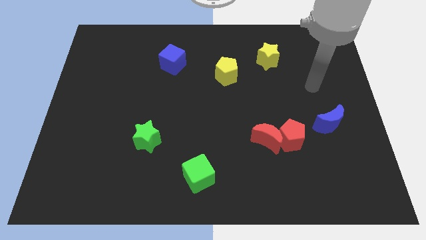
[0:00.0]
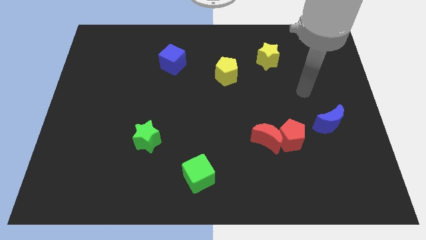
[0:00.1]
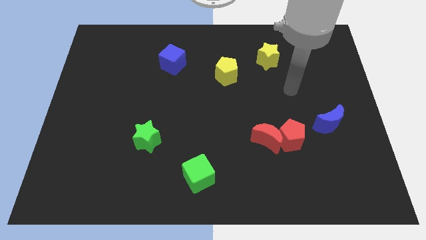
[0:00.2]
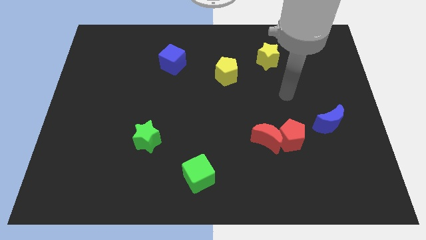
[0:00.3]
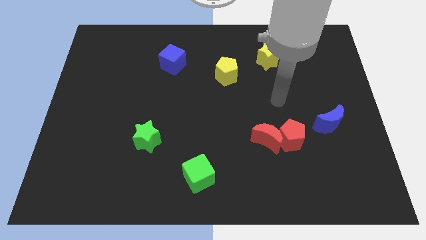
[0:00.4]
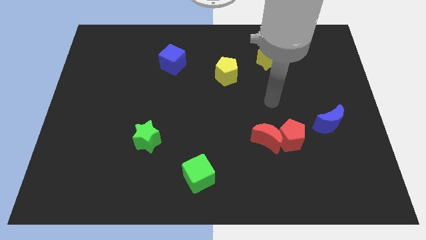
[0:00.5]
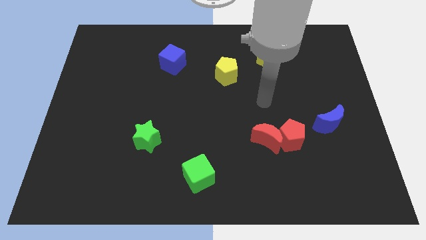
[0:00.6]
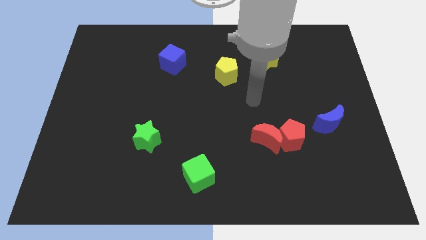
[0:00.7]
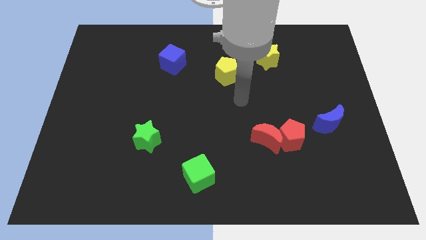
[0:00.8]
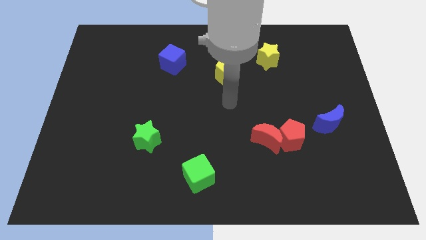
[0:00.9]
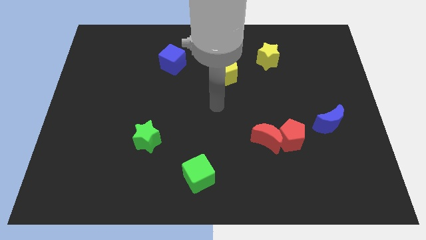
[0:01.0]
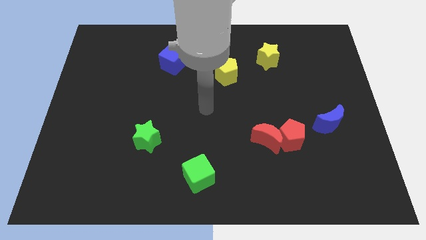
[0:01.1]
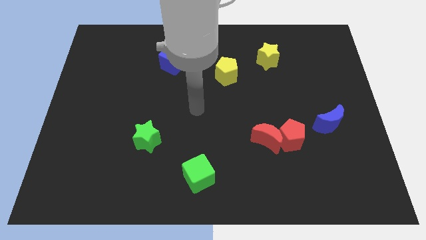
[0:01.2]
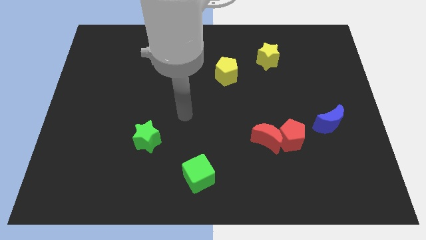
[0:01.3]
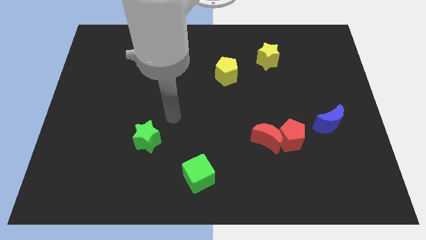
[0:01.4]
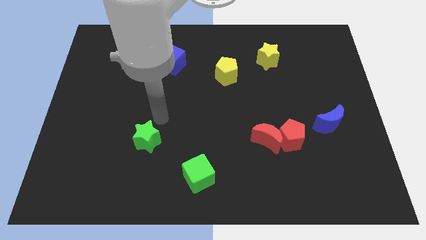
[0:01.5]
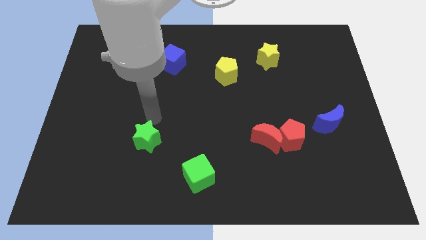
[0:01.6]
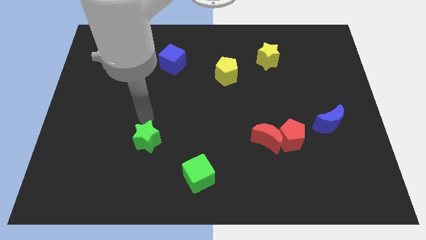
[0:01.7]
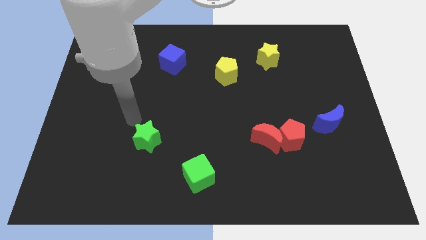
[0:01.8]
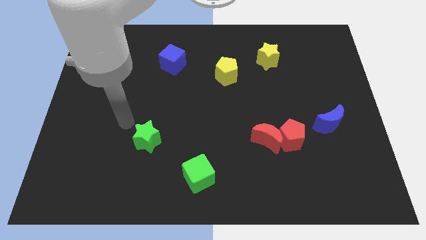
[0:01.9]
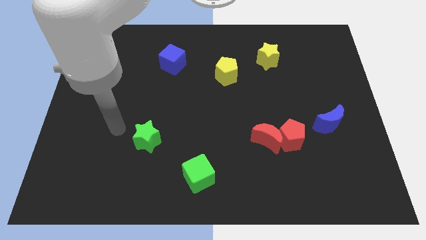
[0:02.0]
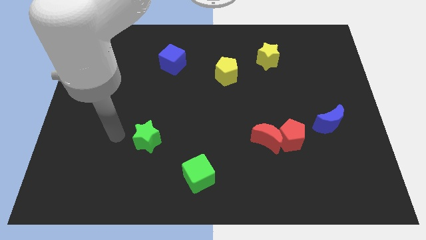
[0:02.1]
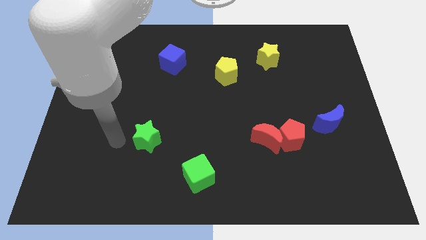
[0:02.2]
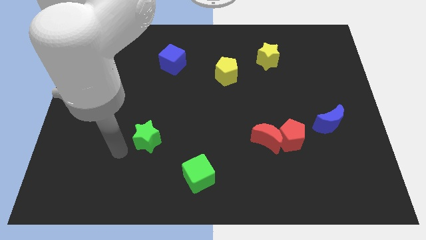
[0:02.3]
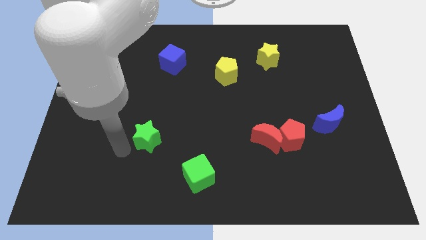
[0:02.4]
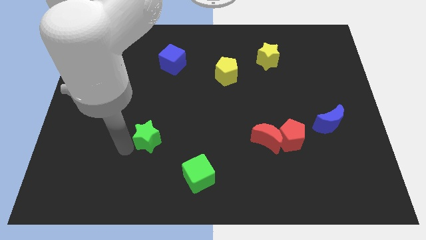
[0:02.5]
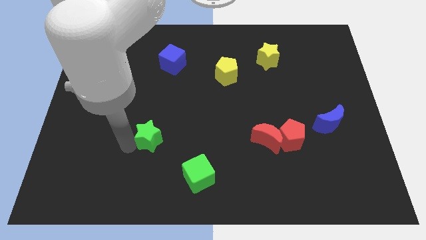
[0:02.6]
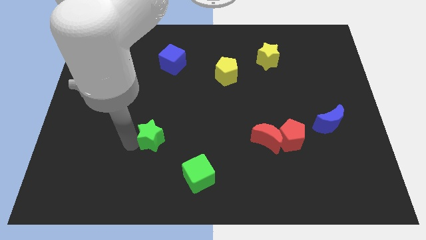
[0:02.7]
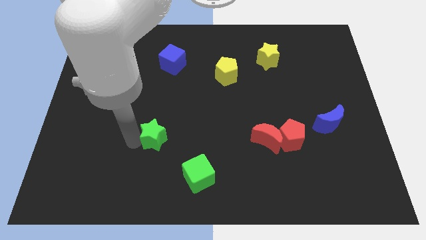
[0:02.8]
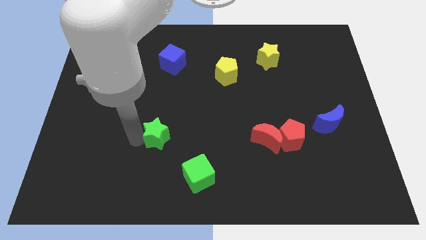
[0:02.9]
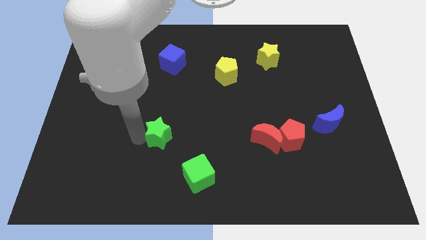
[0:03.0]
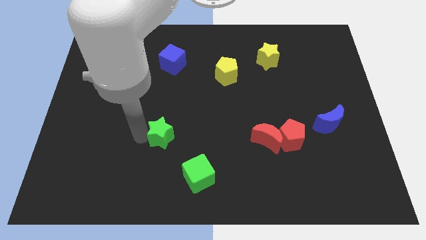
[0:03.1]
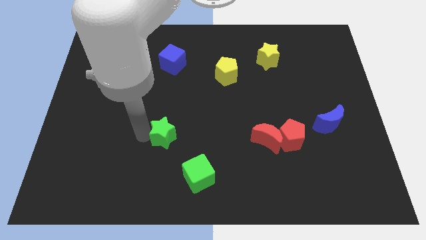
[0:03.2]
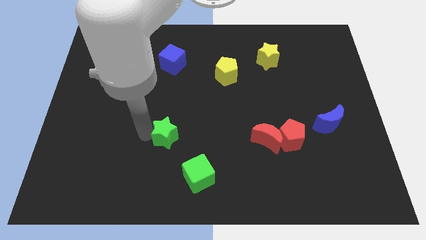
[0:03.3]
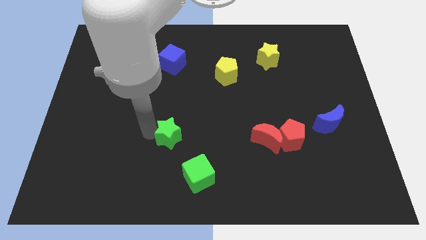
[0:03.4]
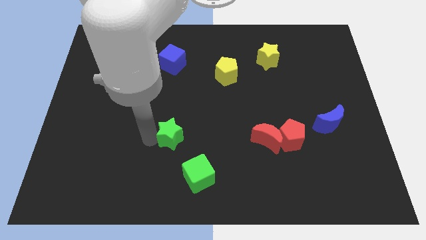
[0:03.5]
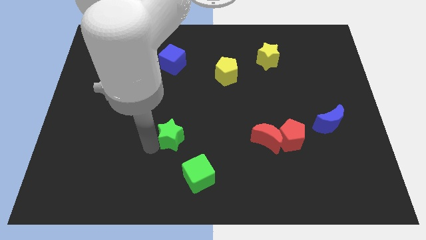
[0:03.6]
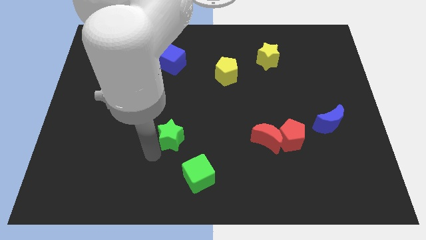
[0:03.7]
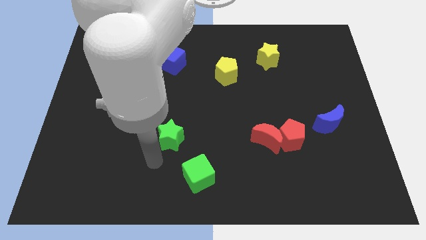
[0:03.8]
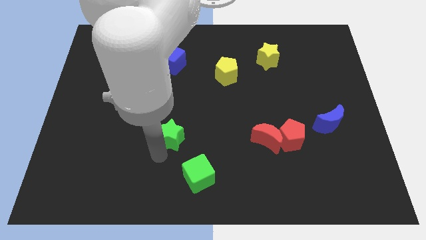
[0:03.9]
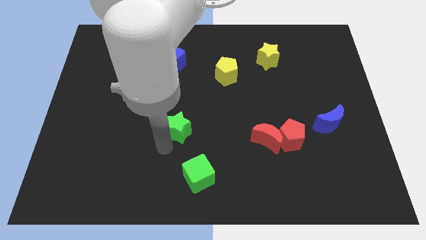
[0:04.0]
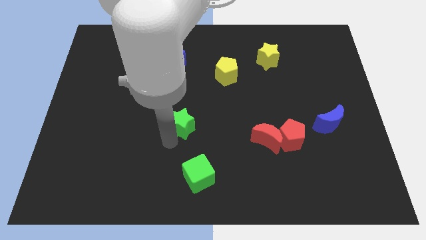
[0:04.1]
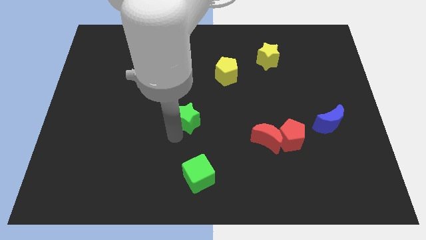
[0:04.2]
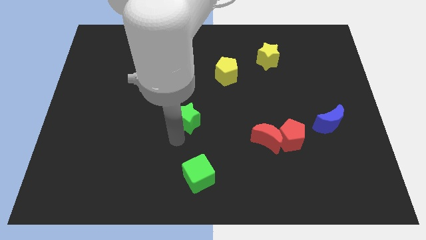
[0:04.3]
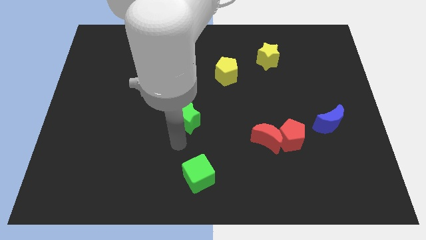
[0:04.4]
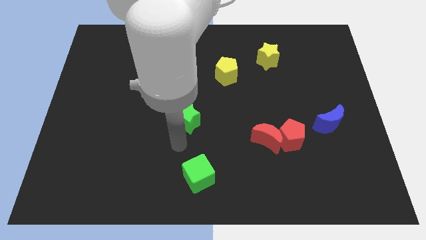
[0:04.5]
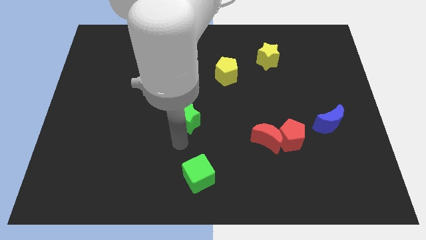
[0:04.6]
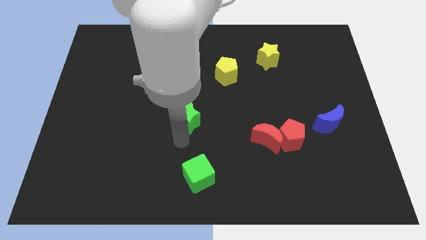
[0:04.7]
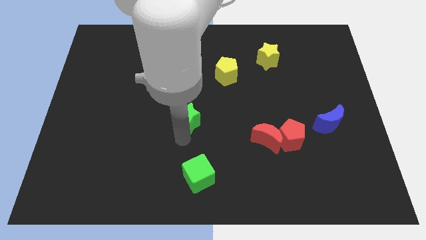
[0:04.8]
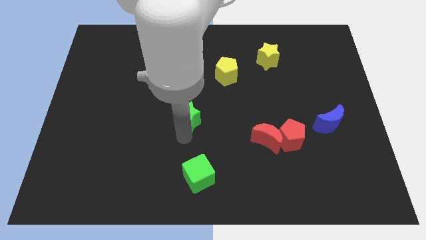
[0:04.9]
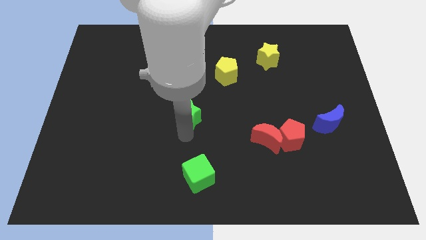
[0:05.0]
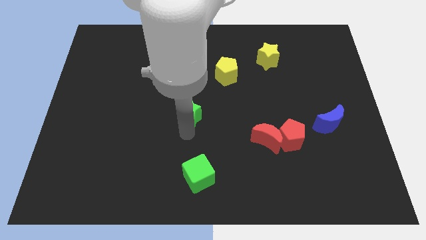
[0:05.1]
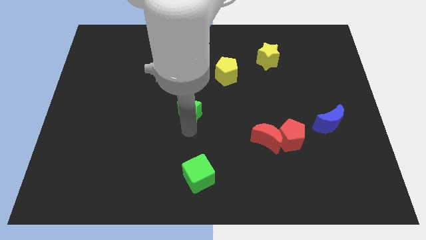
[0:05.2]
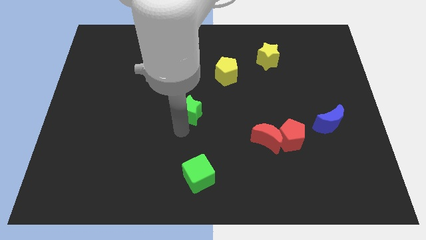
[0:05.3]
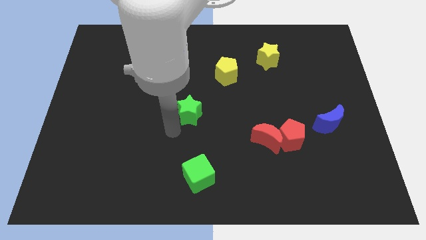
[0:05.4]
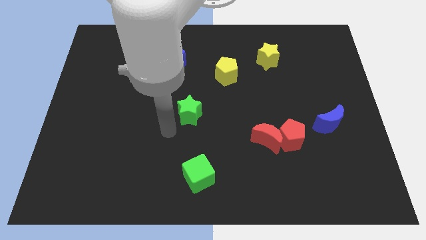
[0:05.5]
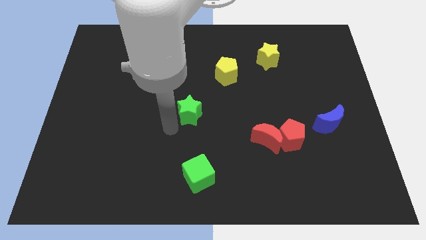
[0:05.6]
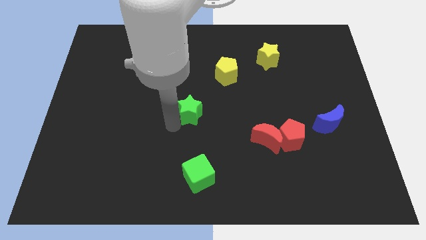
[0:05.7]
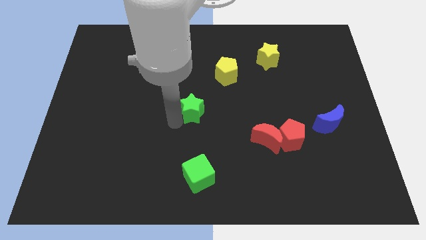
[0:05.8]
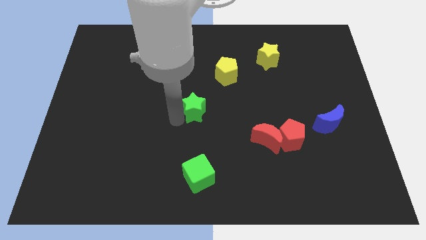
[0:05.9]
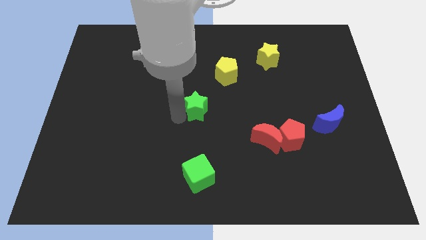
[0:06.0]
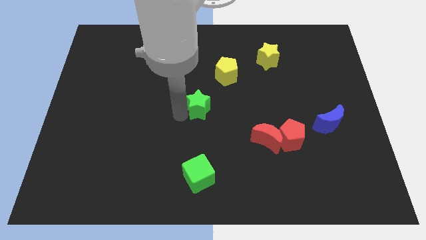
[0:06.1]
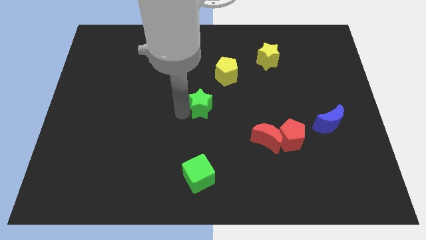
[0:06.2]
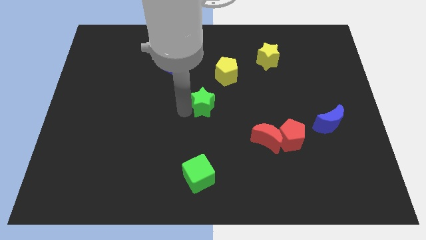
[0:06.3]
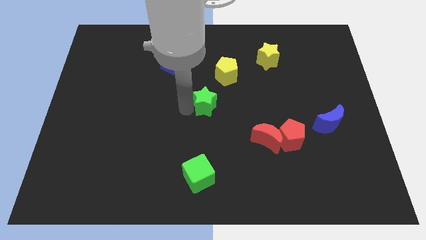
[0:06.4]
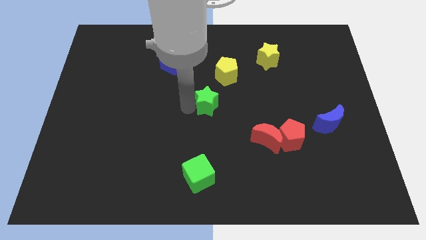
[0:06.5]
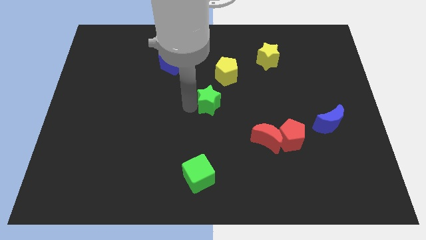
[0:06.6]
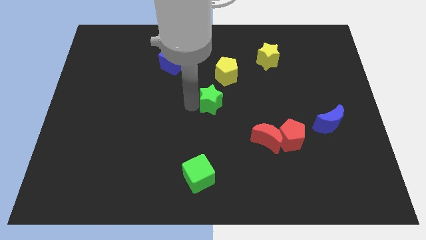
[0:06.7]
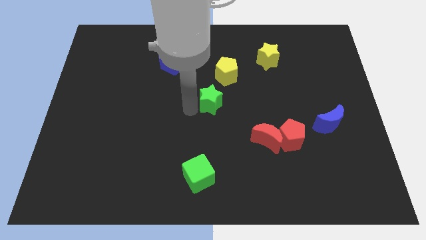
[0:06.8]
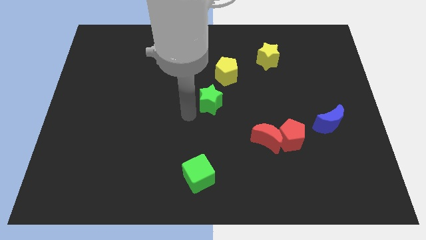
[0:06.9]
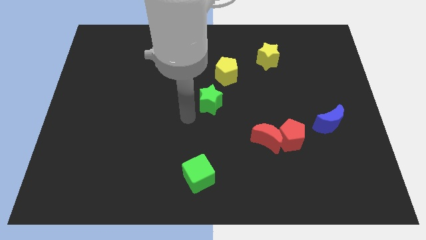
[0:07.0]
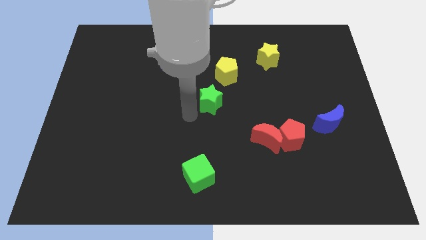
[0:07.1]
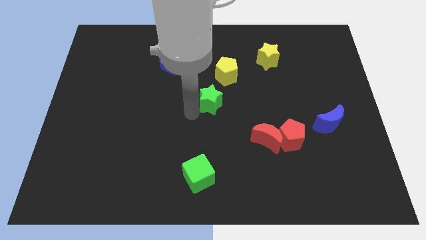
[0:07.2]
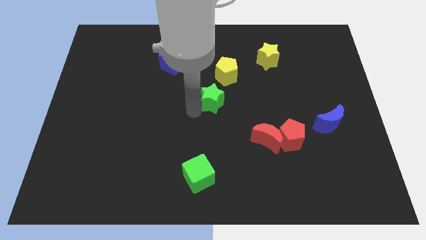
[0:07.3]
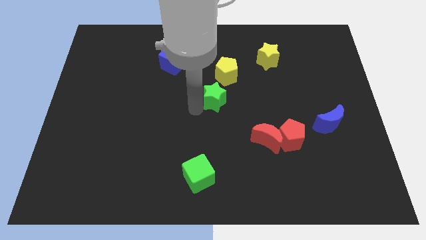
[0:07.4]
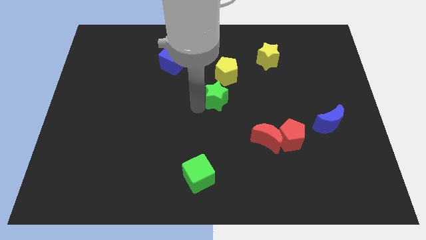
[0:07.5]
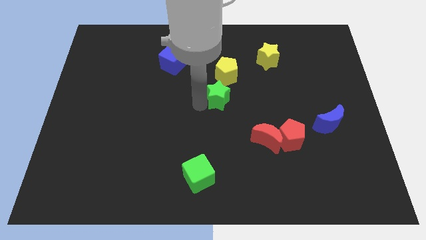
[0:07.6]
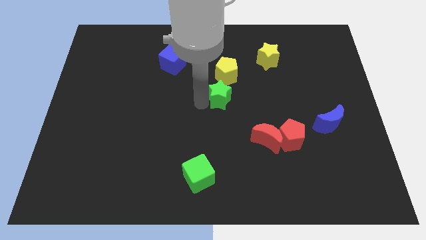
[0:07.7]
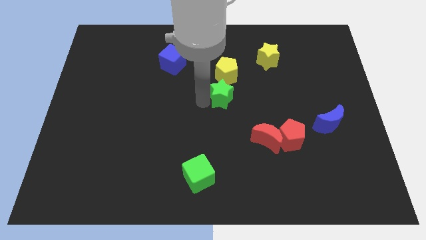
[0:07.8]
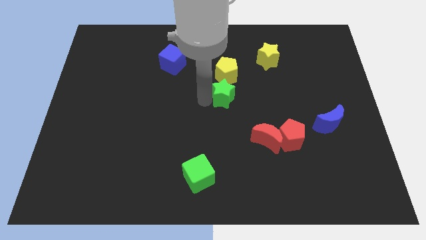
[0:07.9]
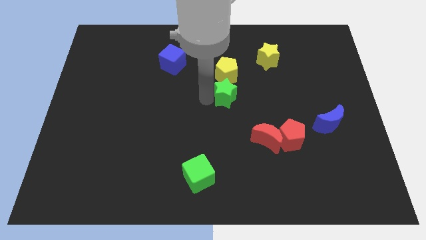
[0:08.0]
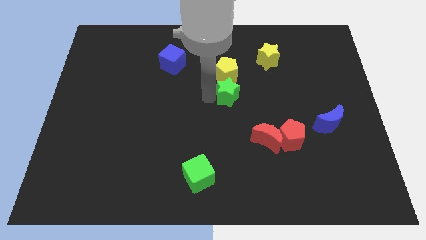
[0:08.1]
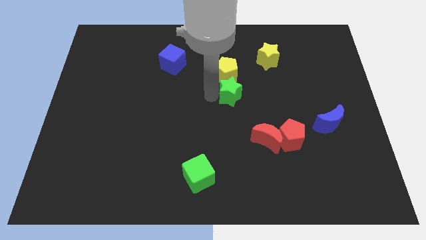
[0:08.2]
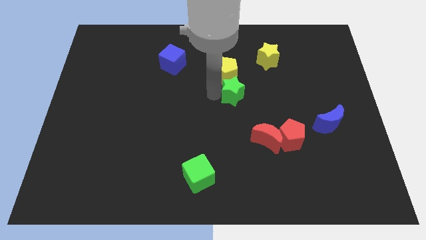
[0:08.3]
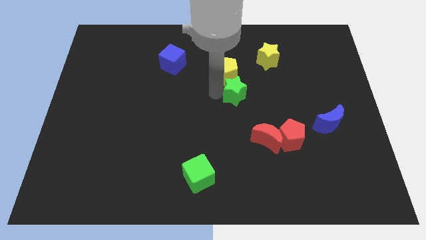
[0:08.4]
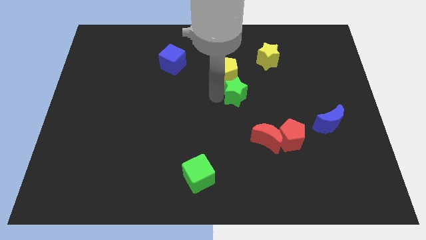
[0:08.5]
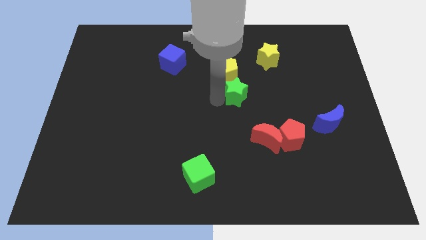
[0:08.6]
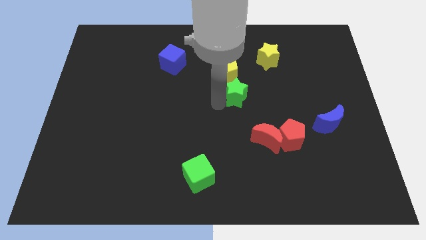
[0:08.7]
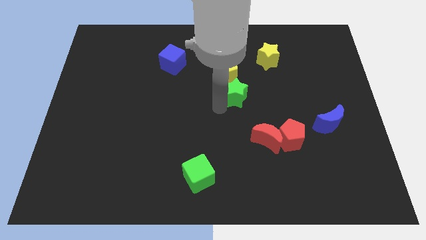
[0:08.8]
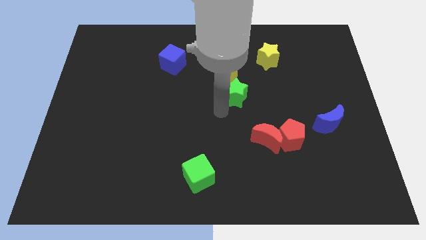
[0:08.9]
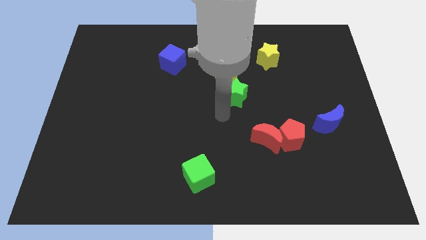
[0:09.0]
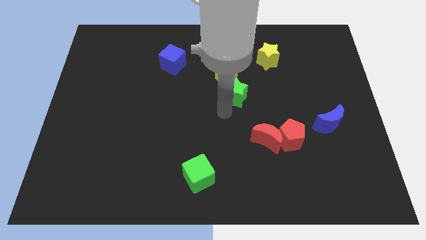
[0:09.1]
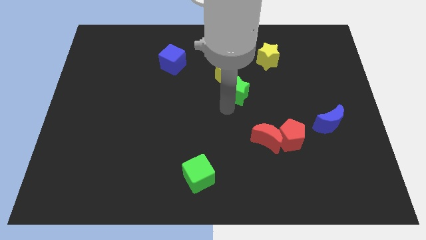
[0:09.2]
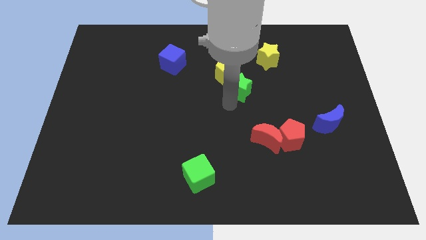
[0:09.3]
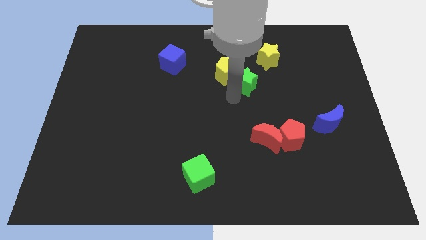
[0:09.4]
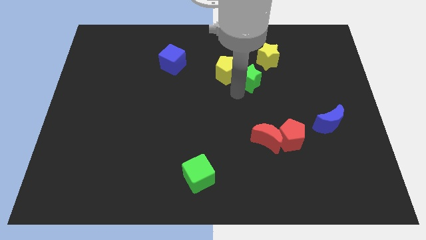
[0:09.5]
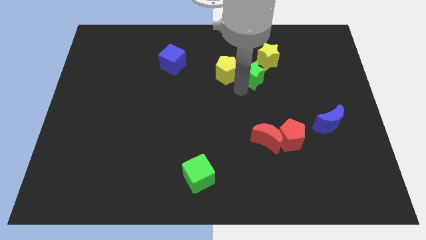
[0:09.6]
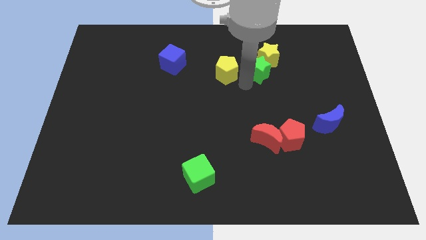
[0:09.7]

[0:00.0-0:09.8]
move the green star towards the yellow star
